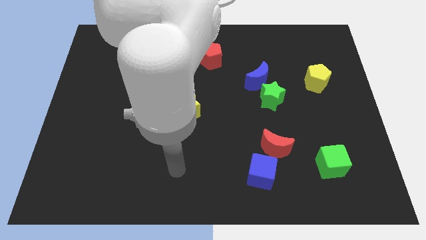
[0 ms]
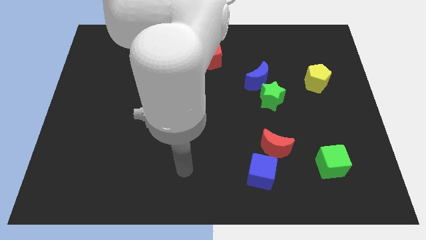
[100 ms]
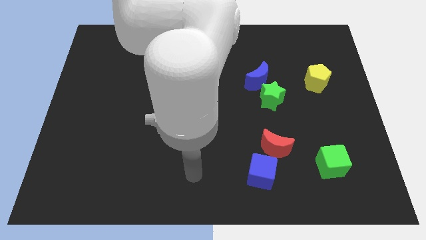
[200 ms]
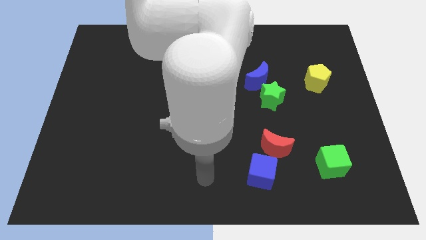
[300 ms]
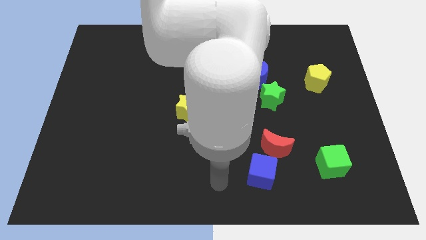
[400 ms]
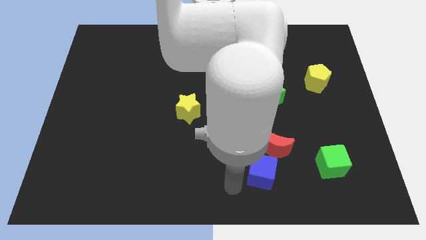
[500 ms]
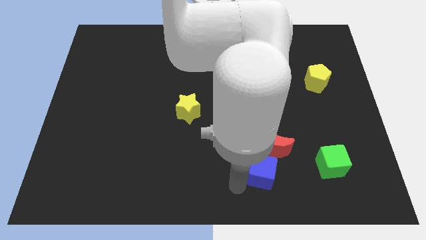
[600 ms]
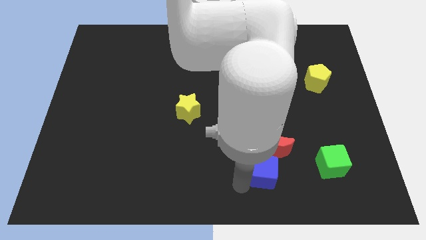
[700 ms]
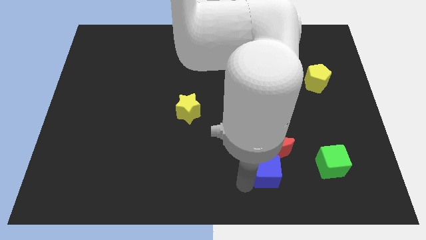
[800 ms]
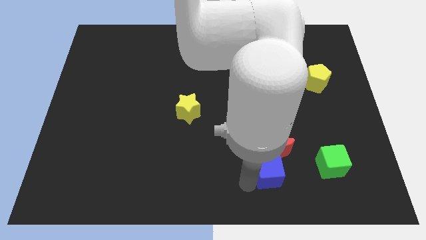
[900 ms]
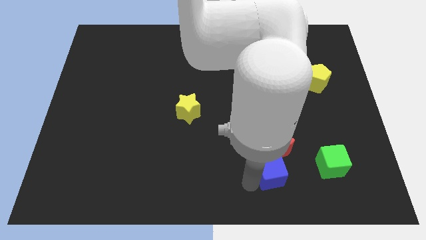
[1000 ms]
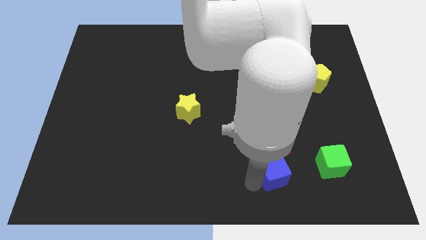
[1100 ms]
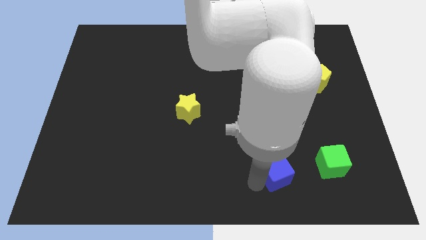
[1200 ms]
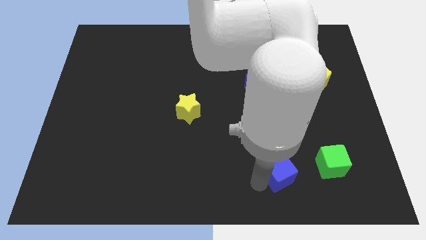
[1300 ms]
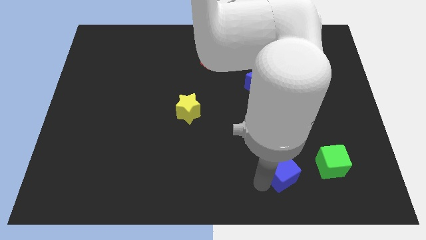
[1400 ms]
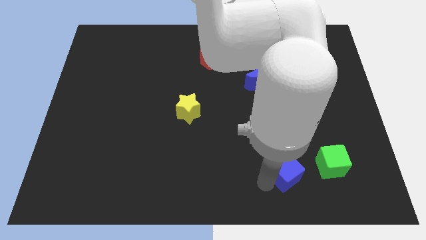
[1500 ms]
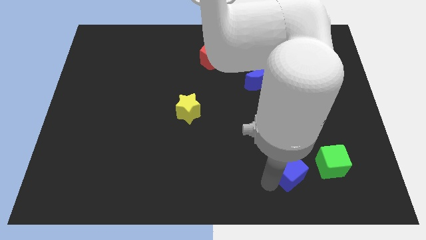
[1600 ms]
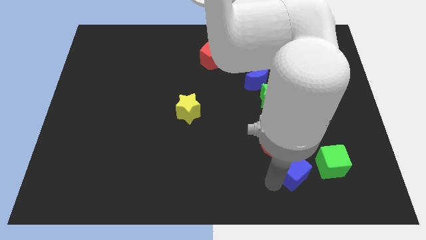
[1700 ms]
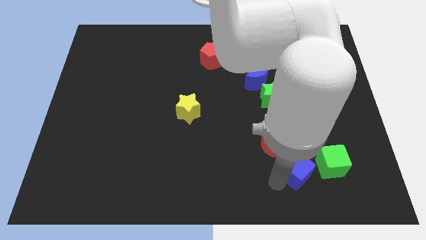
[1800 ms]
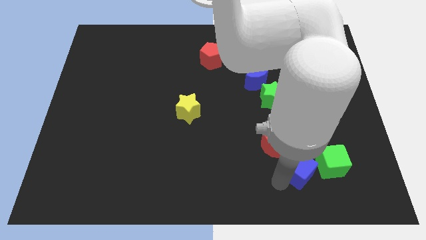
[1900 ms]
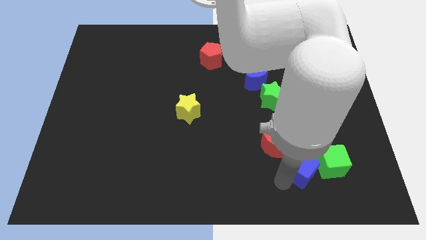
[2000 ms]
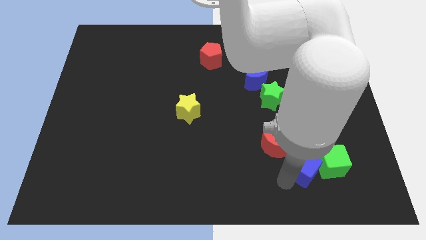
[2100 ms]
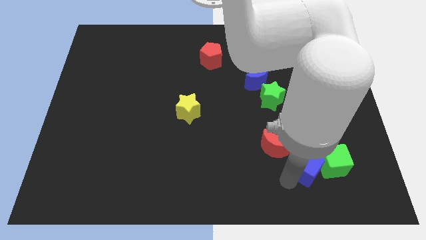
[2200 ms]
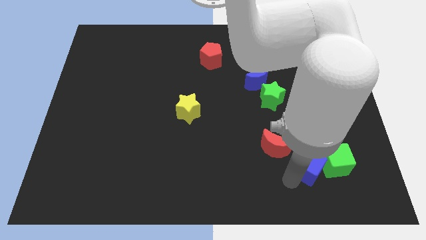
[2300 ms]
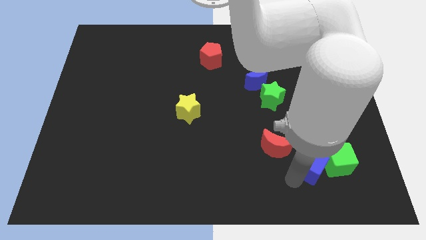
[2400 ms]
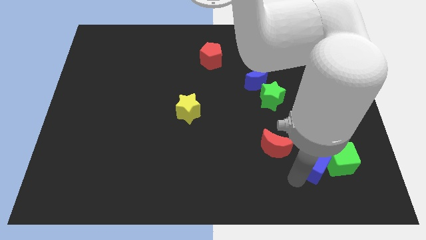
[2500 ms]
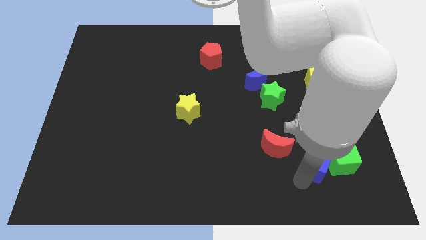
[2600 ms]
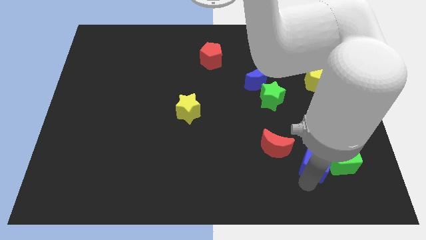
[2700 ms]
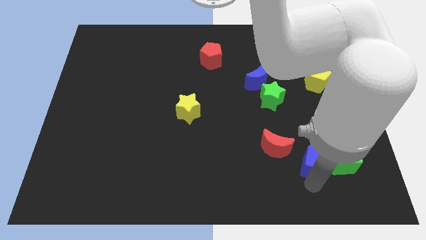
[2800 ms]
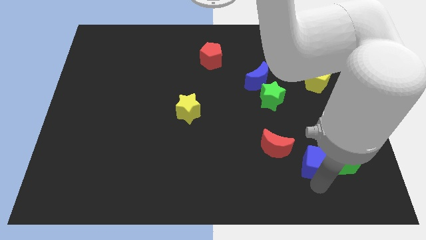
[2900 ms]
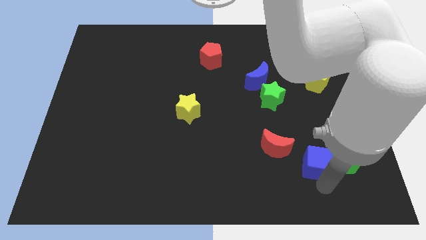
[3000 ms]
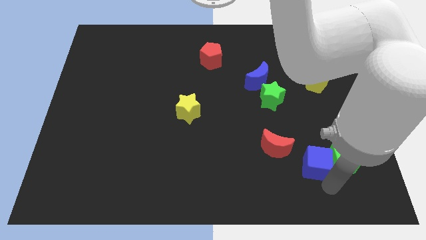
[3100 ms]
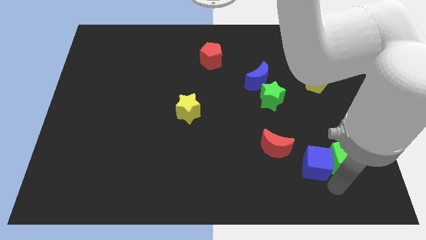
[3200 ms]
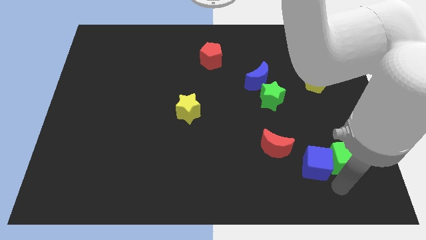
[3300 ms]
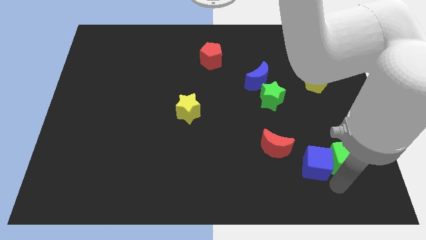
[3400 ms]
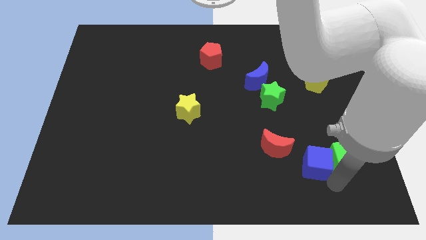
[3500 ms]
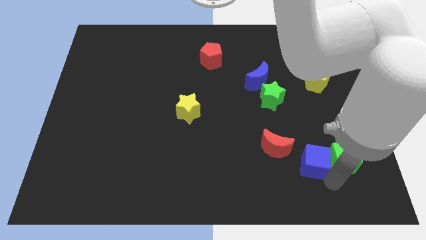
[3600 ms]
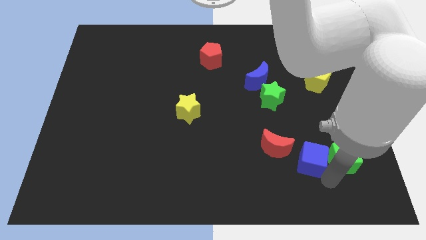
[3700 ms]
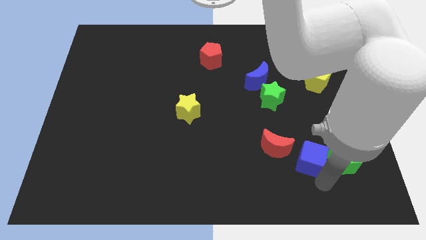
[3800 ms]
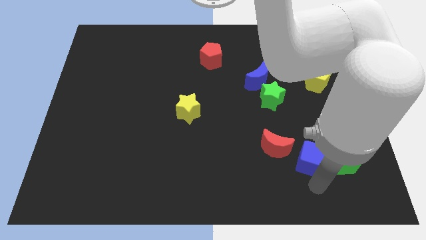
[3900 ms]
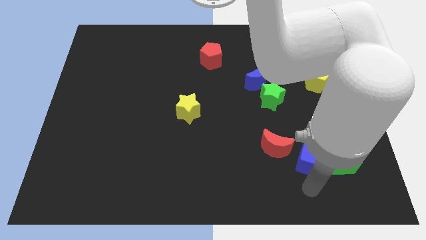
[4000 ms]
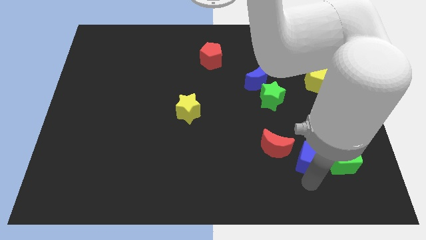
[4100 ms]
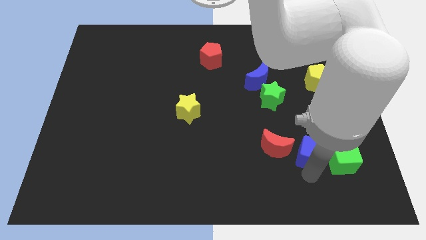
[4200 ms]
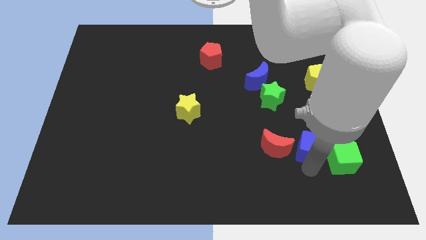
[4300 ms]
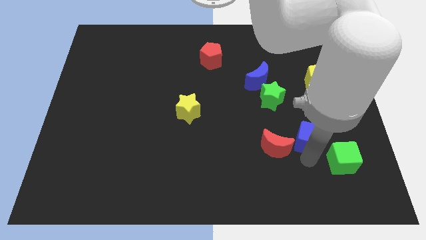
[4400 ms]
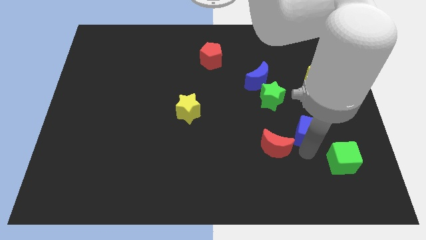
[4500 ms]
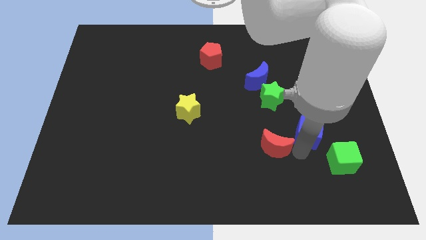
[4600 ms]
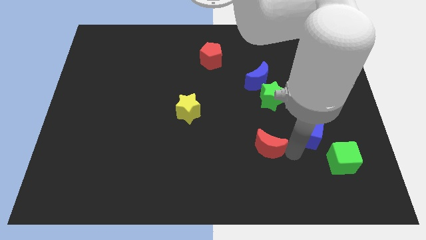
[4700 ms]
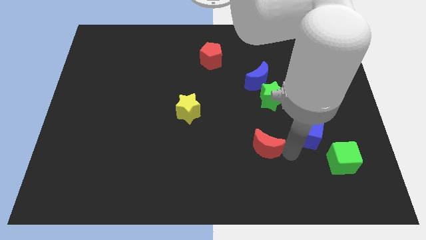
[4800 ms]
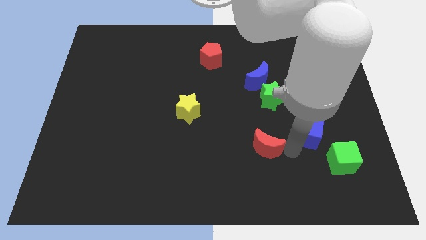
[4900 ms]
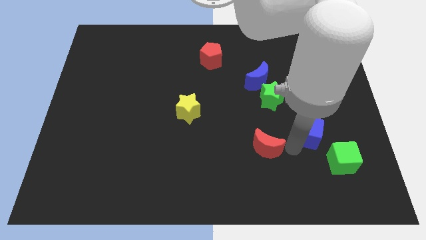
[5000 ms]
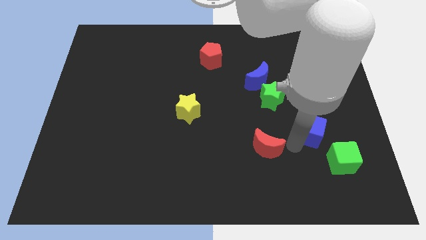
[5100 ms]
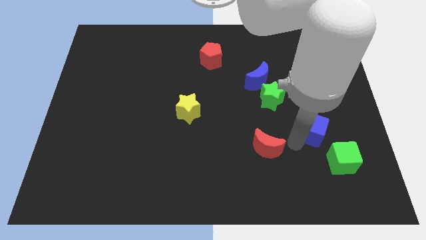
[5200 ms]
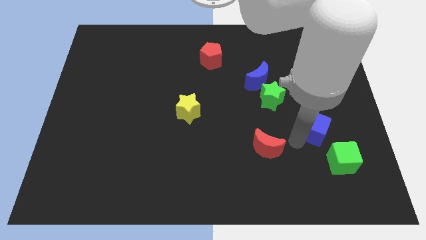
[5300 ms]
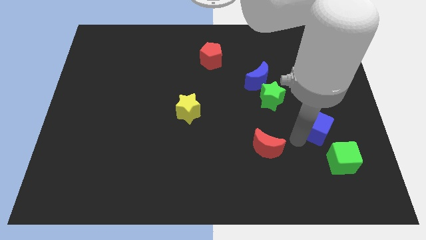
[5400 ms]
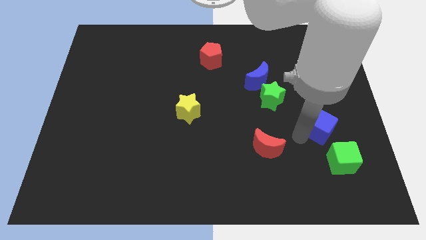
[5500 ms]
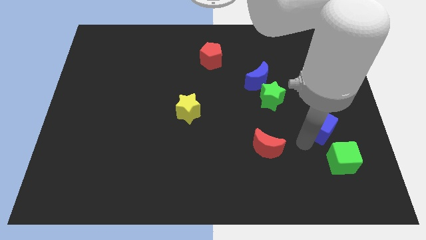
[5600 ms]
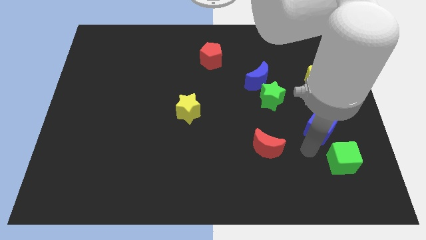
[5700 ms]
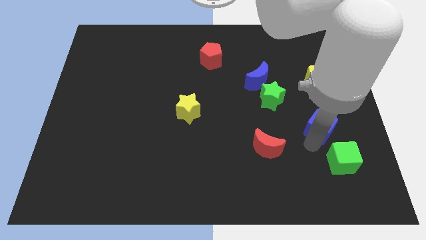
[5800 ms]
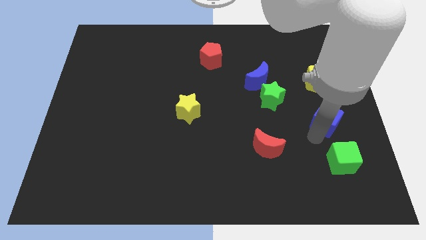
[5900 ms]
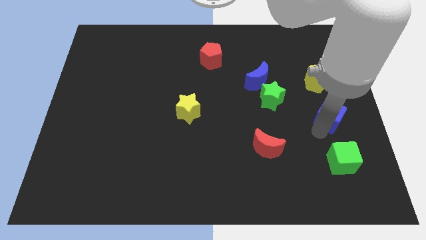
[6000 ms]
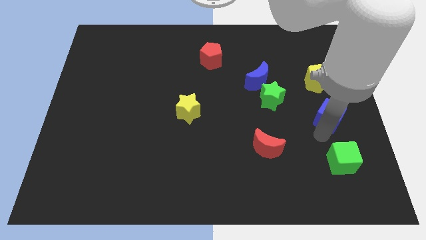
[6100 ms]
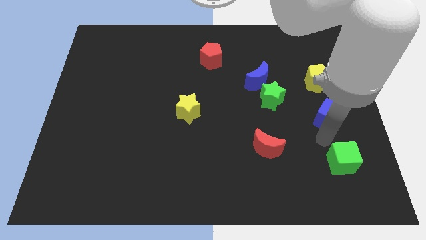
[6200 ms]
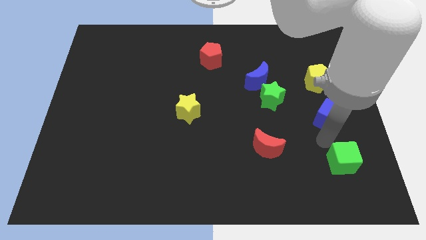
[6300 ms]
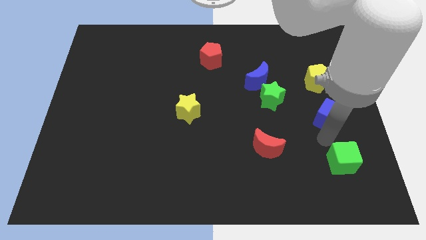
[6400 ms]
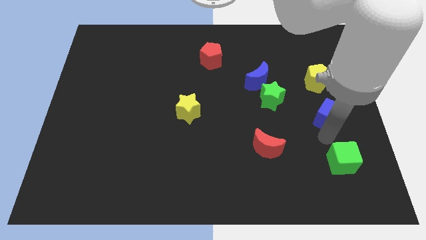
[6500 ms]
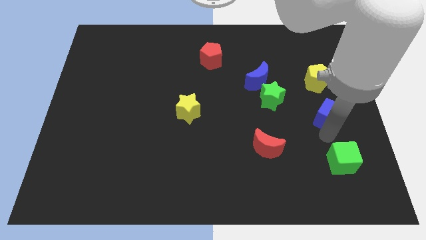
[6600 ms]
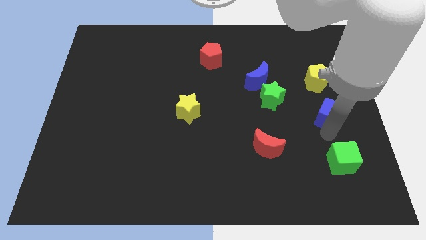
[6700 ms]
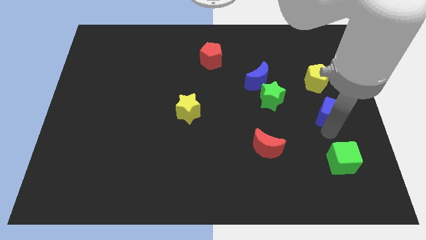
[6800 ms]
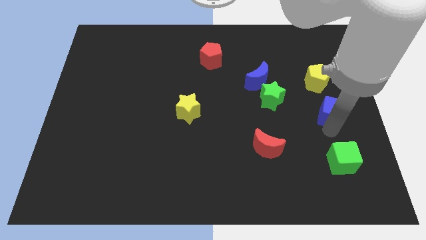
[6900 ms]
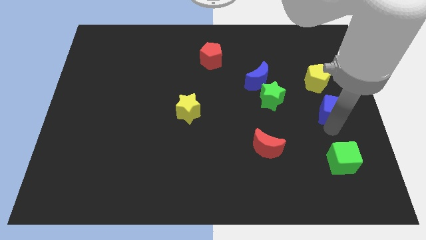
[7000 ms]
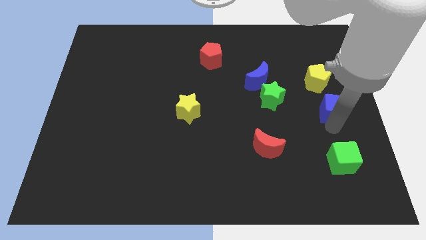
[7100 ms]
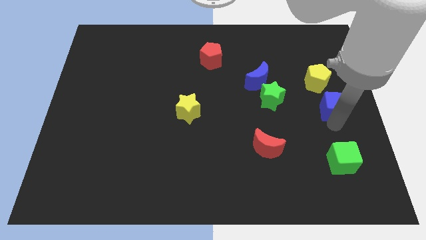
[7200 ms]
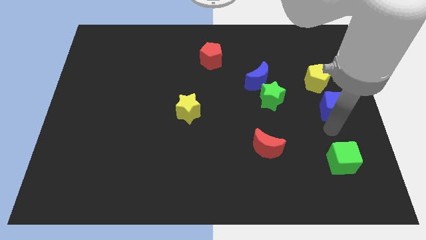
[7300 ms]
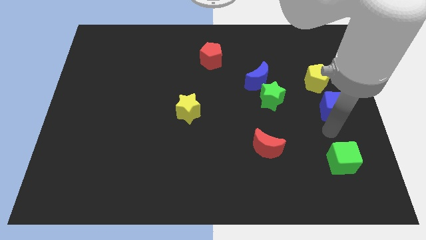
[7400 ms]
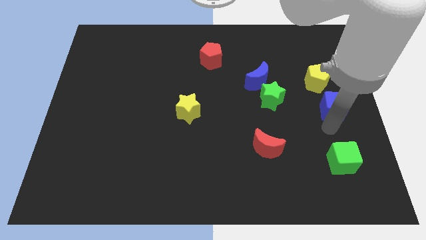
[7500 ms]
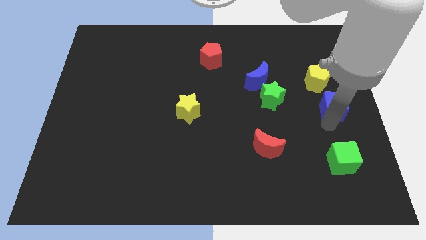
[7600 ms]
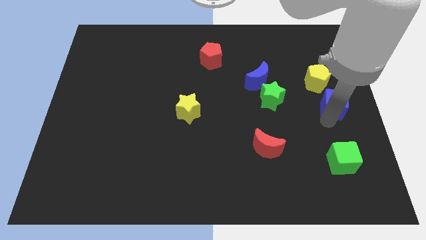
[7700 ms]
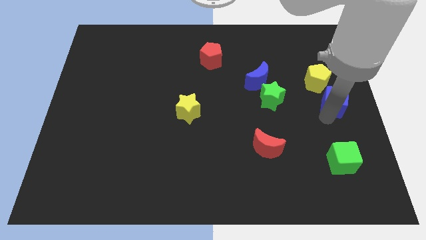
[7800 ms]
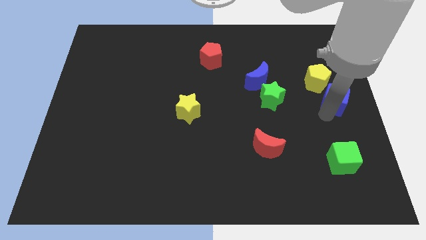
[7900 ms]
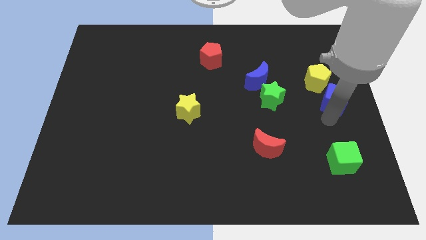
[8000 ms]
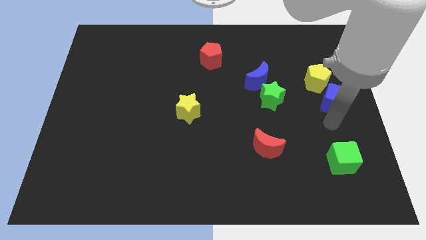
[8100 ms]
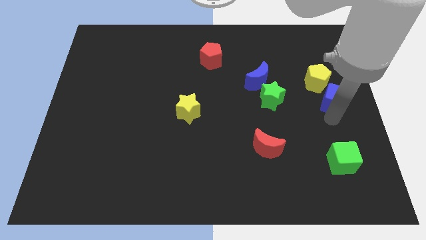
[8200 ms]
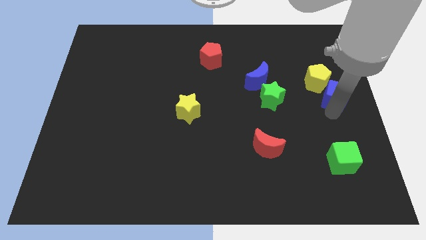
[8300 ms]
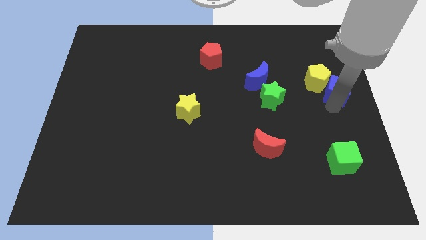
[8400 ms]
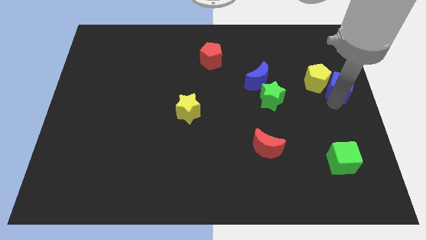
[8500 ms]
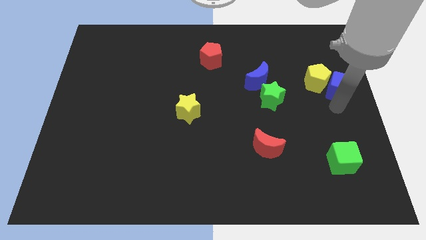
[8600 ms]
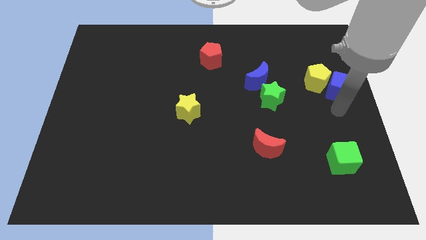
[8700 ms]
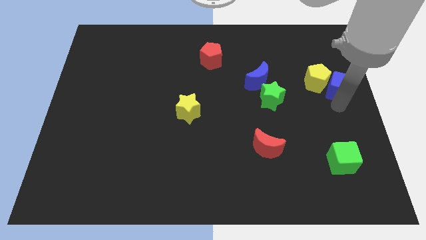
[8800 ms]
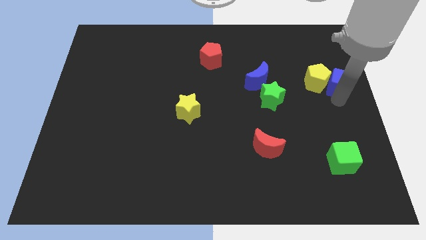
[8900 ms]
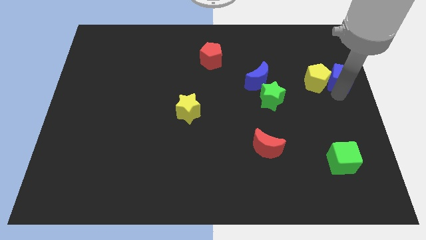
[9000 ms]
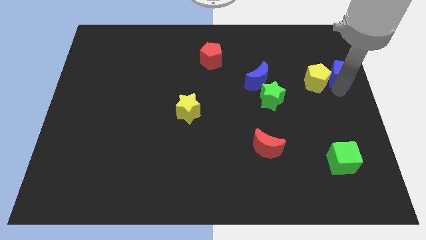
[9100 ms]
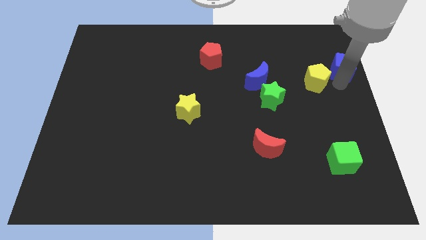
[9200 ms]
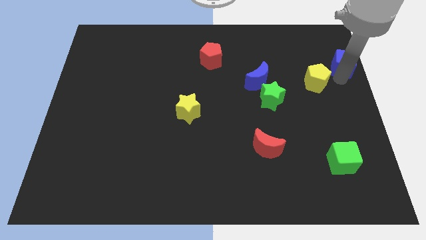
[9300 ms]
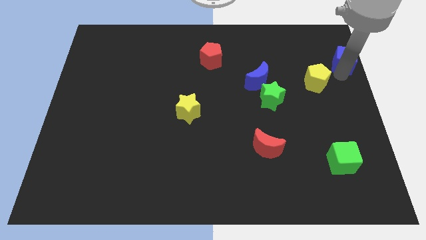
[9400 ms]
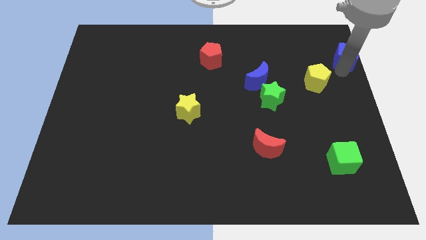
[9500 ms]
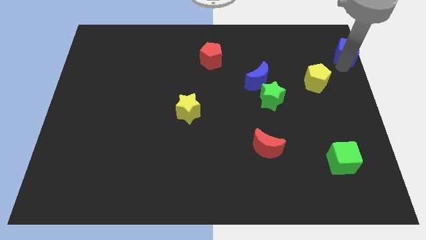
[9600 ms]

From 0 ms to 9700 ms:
put the blue cube to the upper right corner
